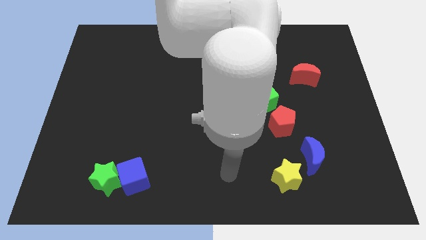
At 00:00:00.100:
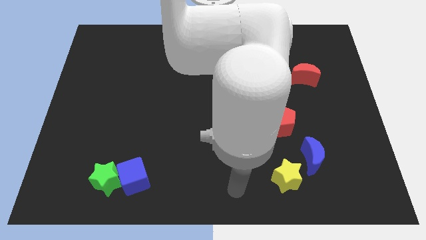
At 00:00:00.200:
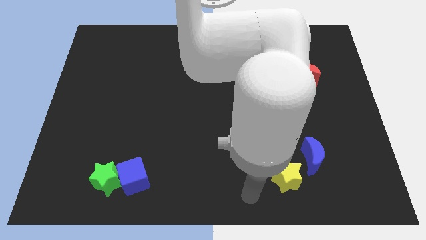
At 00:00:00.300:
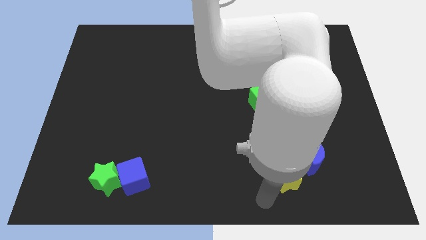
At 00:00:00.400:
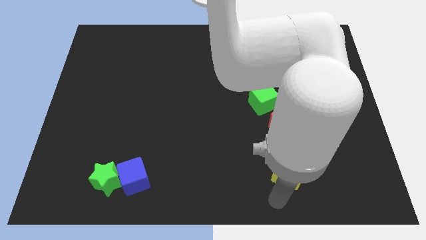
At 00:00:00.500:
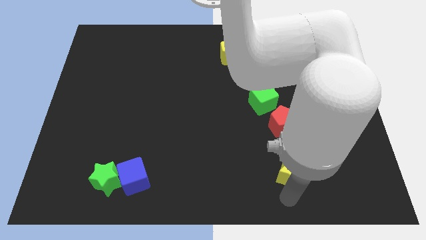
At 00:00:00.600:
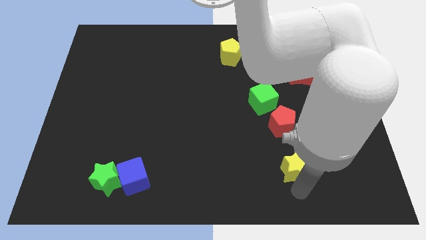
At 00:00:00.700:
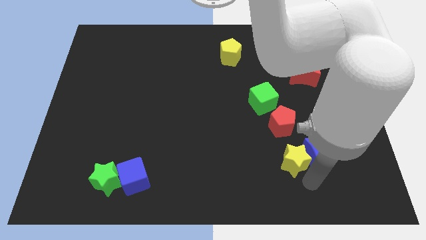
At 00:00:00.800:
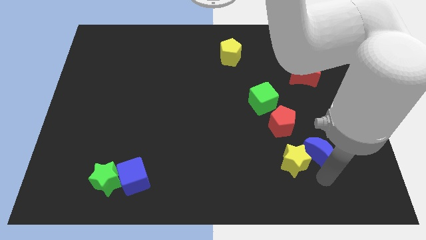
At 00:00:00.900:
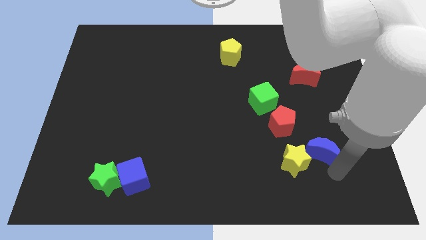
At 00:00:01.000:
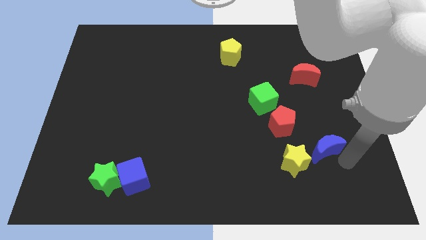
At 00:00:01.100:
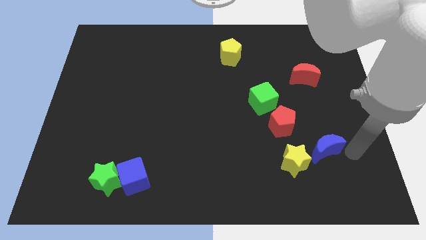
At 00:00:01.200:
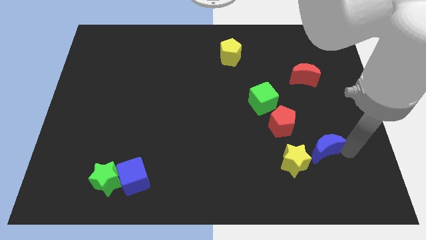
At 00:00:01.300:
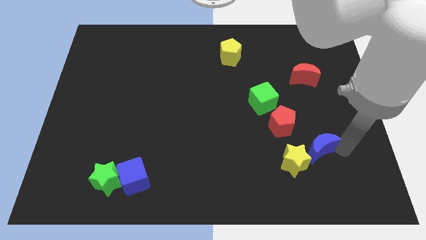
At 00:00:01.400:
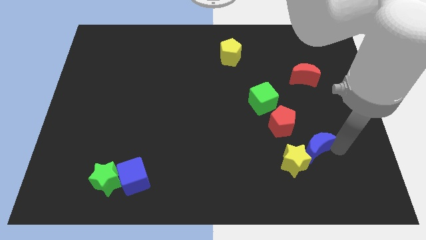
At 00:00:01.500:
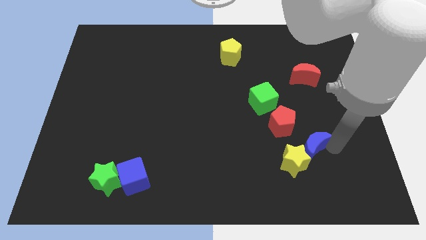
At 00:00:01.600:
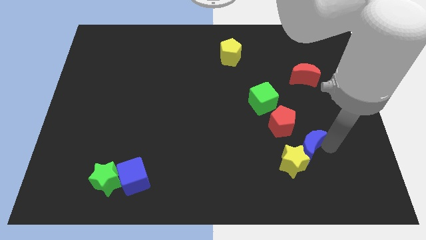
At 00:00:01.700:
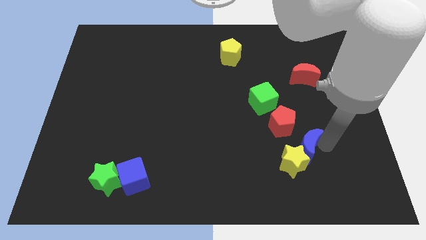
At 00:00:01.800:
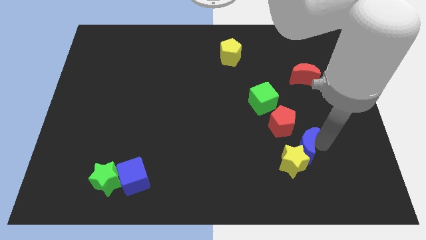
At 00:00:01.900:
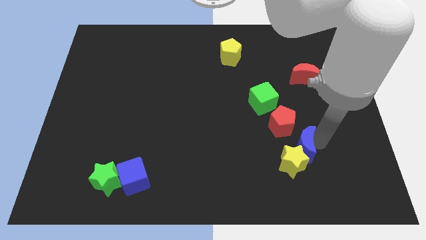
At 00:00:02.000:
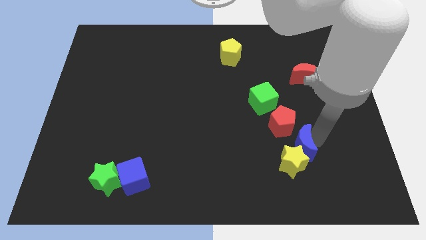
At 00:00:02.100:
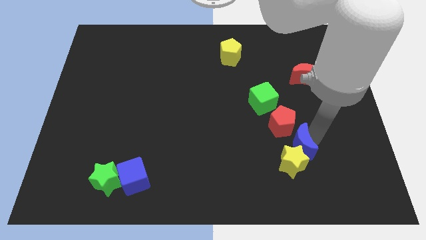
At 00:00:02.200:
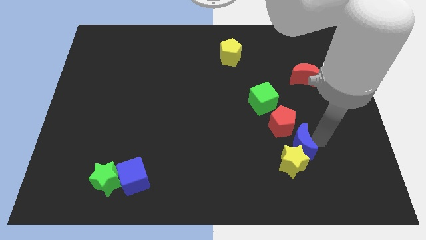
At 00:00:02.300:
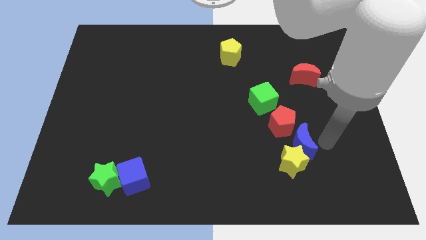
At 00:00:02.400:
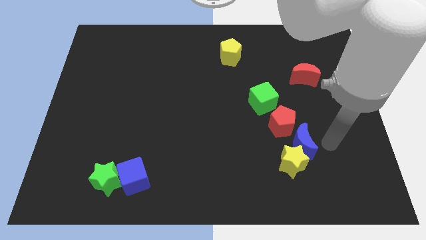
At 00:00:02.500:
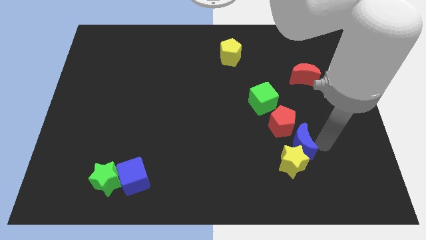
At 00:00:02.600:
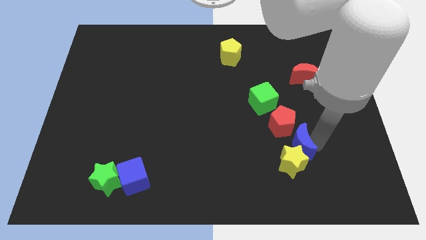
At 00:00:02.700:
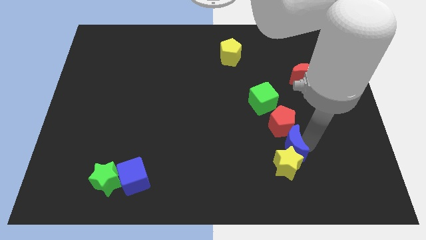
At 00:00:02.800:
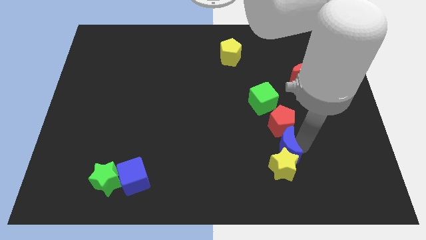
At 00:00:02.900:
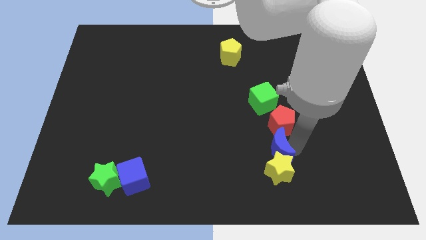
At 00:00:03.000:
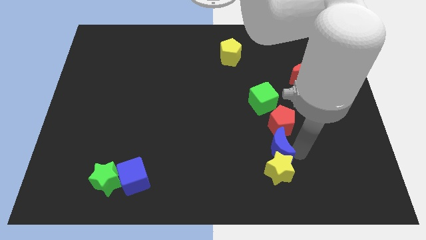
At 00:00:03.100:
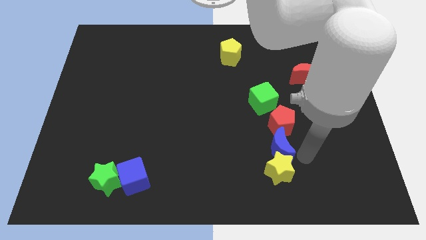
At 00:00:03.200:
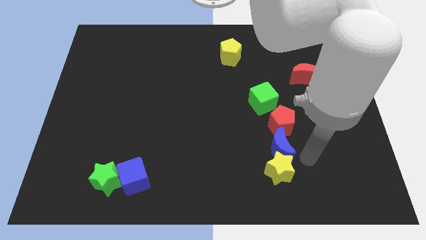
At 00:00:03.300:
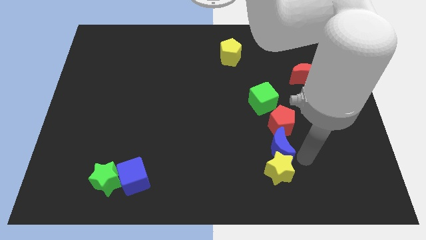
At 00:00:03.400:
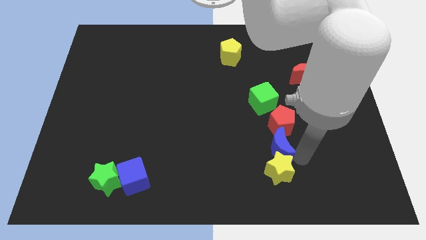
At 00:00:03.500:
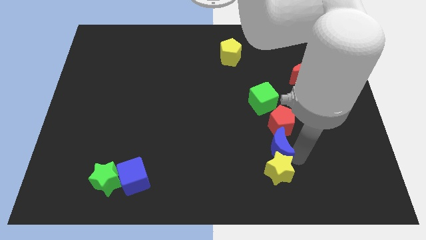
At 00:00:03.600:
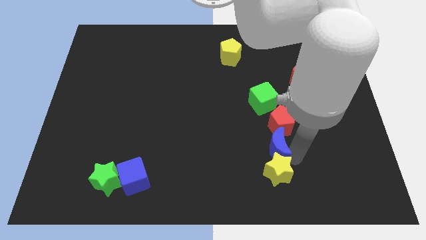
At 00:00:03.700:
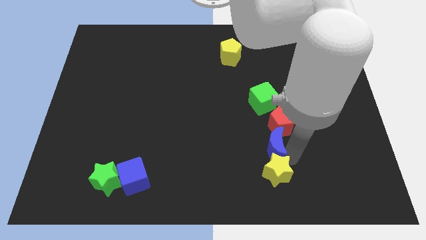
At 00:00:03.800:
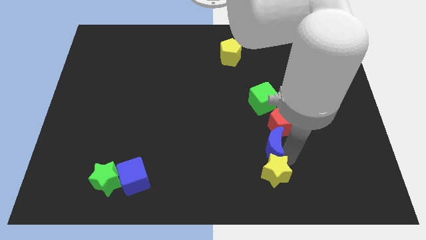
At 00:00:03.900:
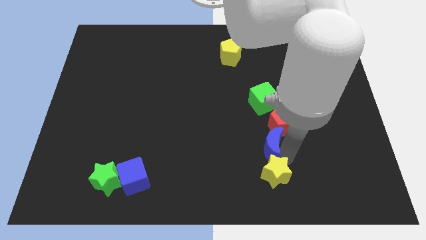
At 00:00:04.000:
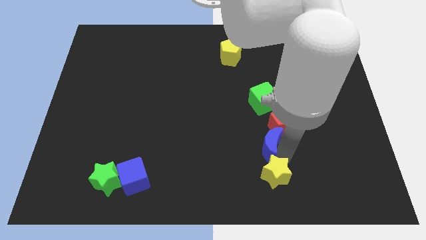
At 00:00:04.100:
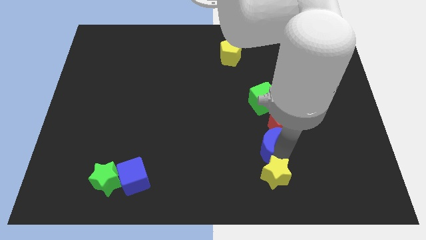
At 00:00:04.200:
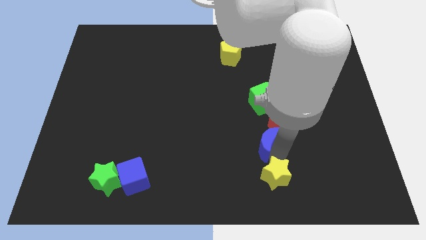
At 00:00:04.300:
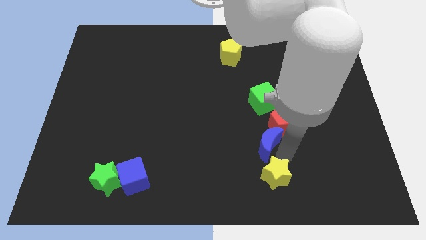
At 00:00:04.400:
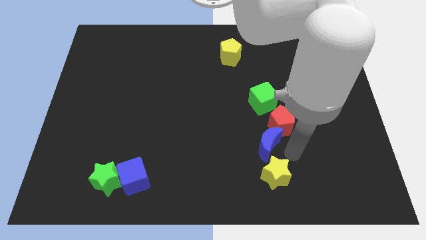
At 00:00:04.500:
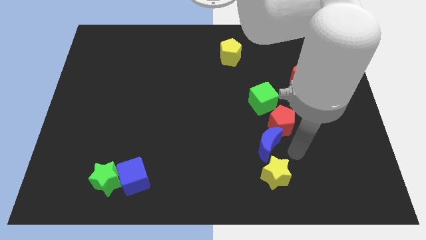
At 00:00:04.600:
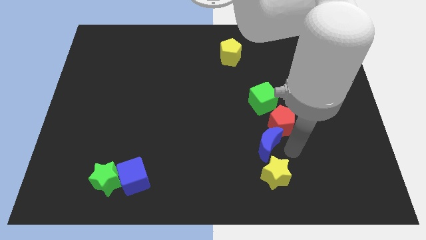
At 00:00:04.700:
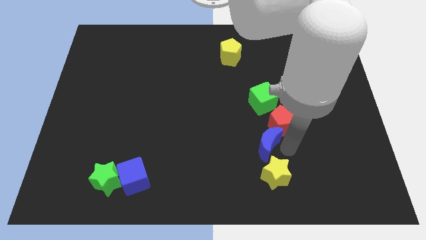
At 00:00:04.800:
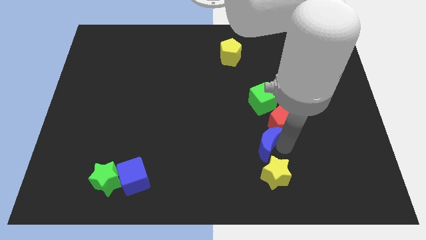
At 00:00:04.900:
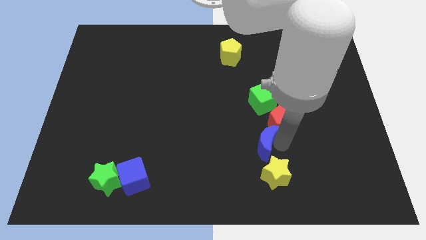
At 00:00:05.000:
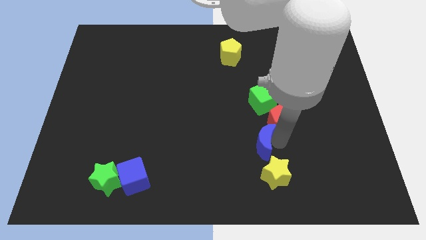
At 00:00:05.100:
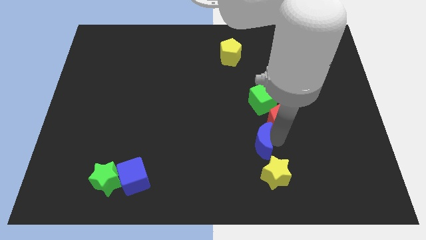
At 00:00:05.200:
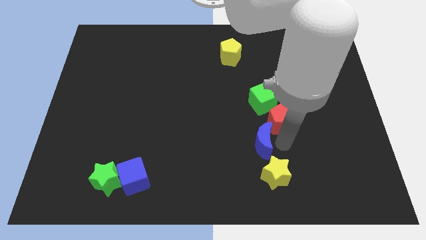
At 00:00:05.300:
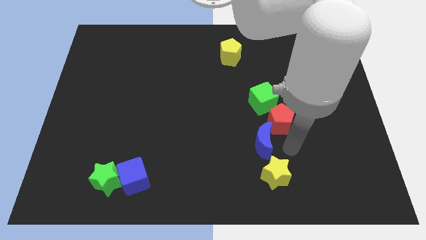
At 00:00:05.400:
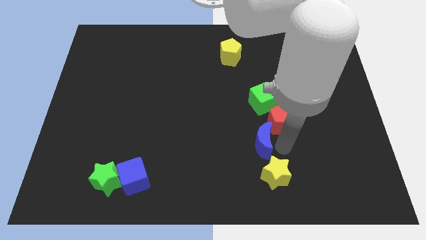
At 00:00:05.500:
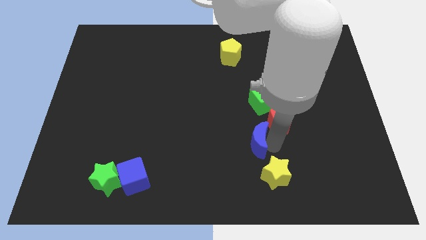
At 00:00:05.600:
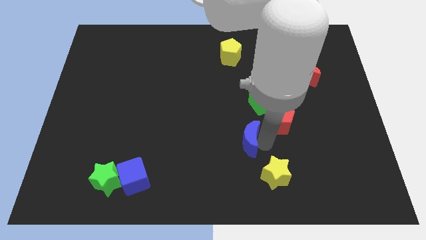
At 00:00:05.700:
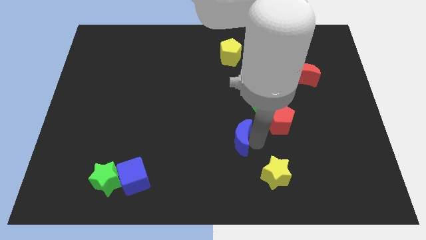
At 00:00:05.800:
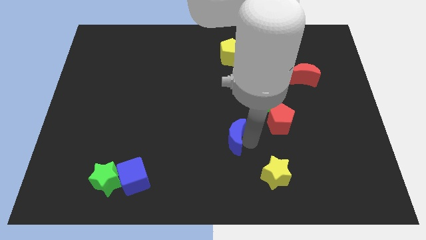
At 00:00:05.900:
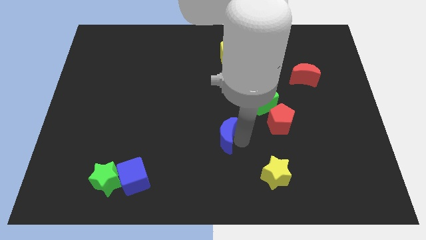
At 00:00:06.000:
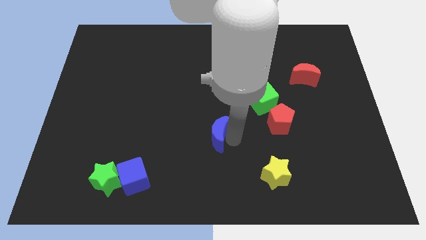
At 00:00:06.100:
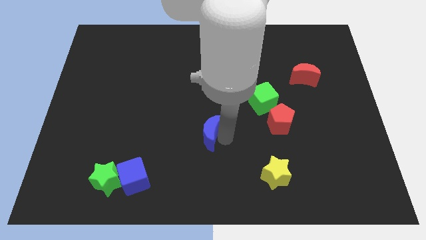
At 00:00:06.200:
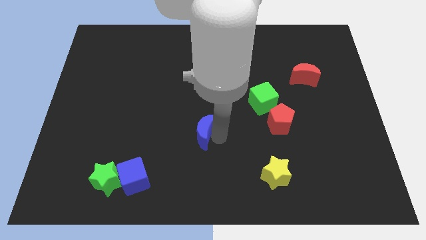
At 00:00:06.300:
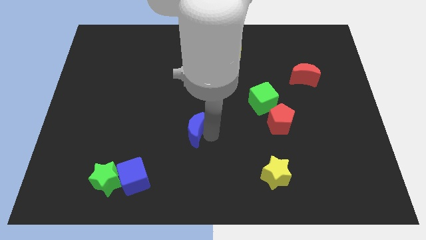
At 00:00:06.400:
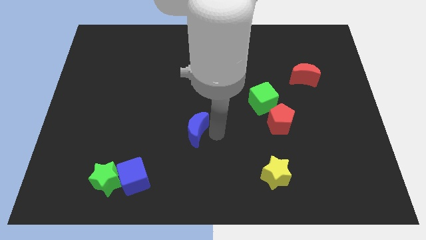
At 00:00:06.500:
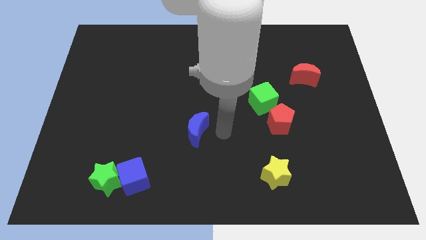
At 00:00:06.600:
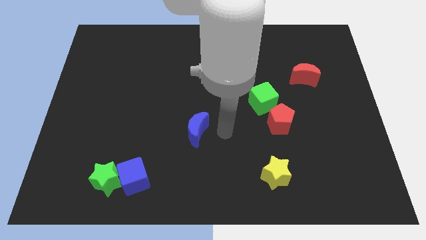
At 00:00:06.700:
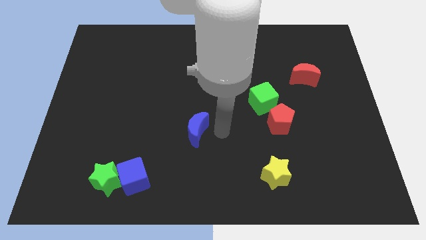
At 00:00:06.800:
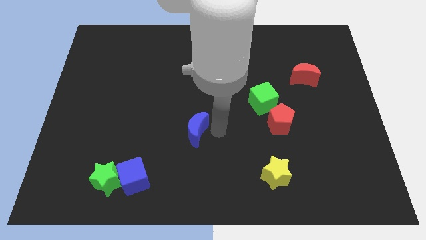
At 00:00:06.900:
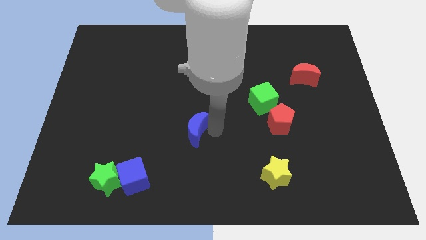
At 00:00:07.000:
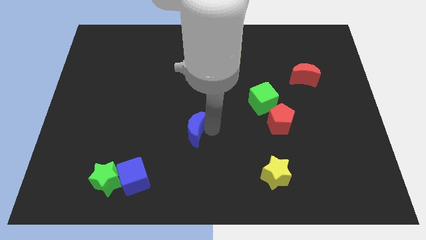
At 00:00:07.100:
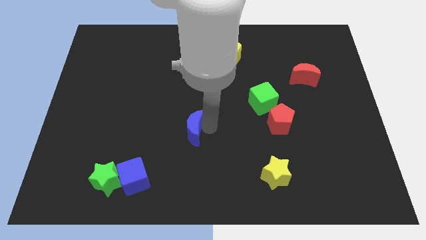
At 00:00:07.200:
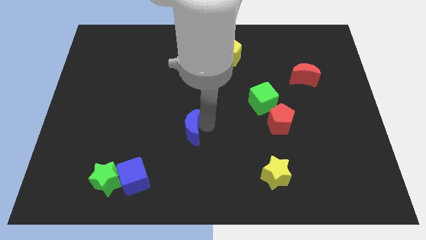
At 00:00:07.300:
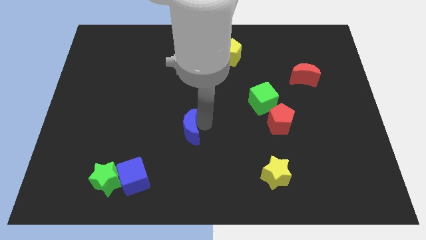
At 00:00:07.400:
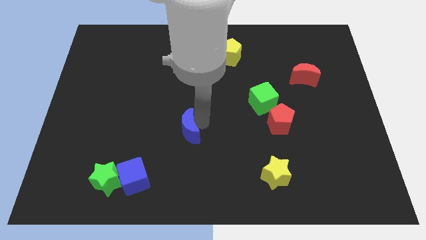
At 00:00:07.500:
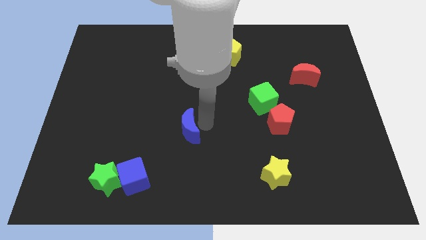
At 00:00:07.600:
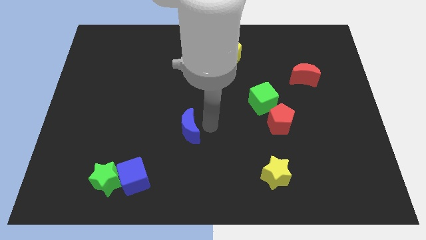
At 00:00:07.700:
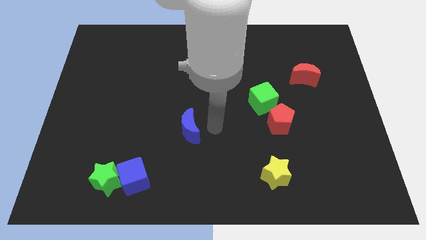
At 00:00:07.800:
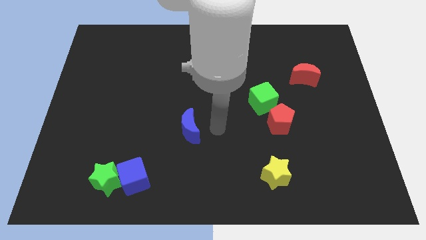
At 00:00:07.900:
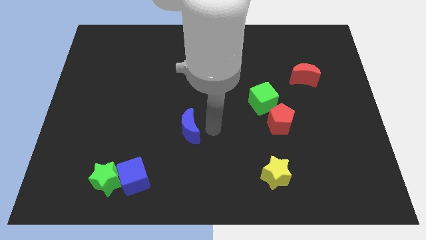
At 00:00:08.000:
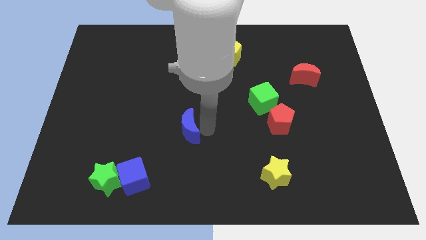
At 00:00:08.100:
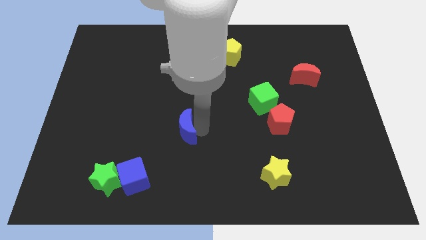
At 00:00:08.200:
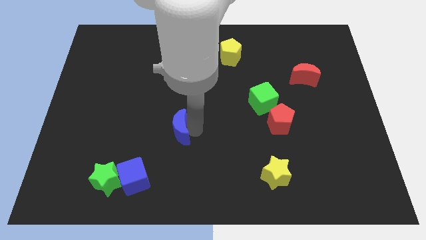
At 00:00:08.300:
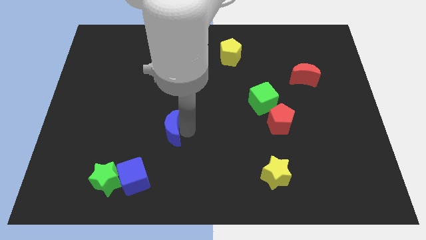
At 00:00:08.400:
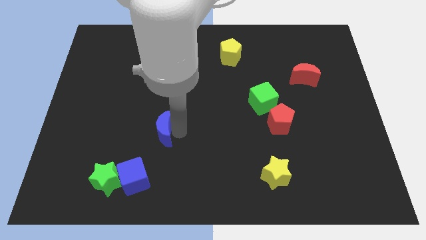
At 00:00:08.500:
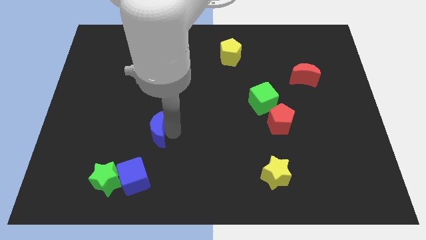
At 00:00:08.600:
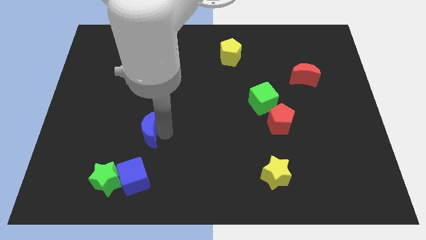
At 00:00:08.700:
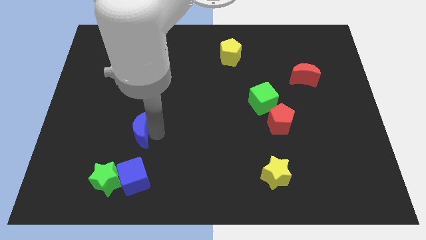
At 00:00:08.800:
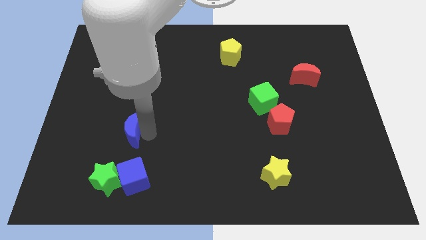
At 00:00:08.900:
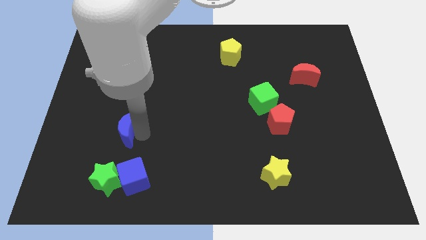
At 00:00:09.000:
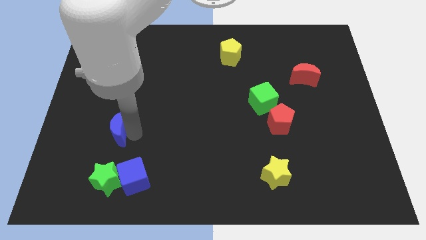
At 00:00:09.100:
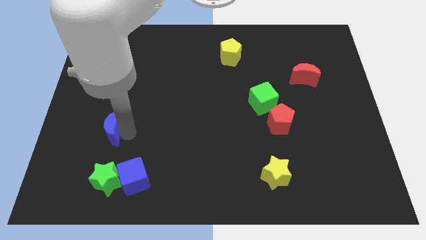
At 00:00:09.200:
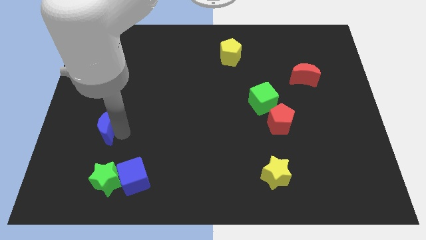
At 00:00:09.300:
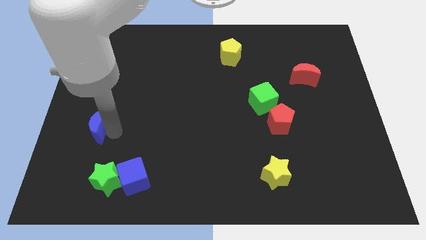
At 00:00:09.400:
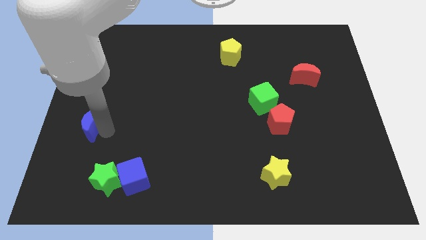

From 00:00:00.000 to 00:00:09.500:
move the blue moon to the left side of the board
